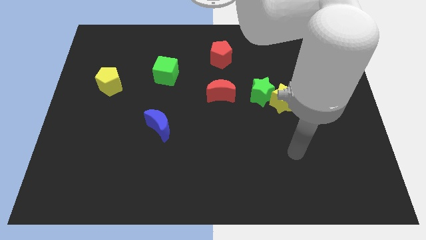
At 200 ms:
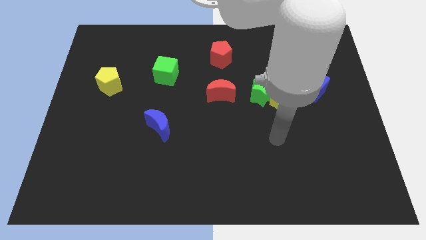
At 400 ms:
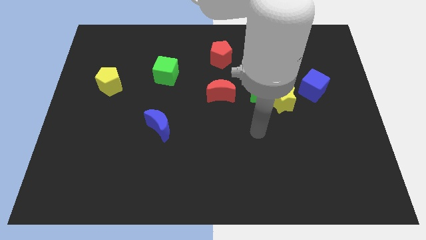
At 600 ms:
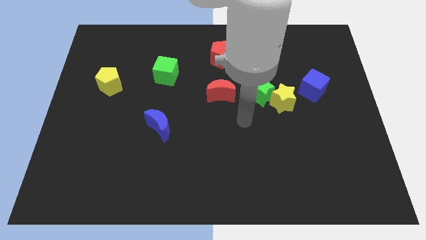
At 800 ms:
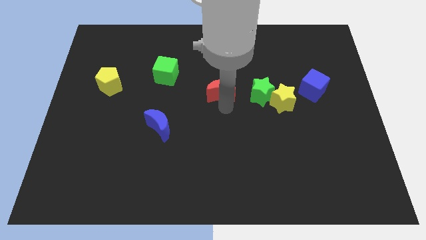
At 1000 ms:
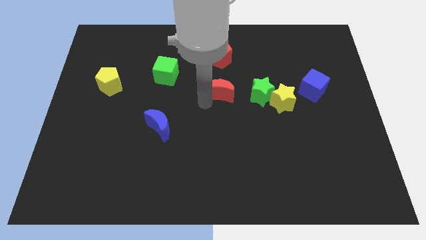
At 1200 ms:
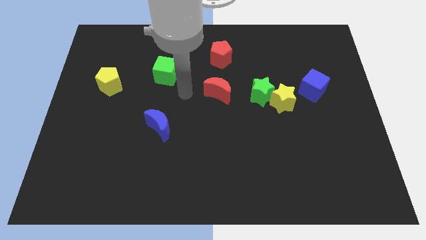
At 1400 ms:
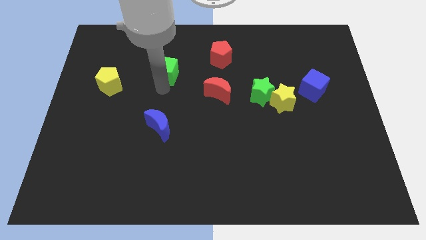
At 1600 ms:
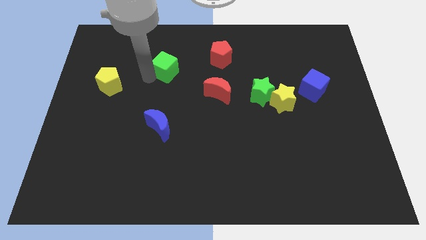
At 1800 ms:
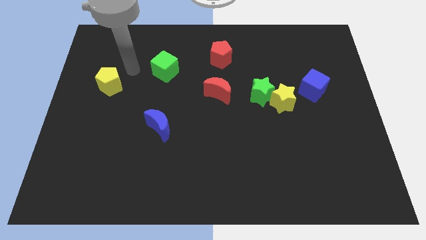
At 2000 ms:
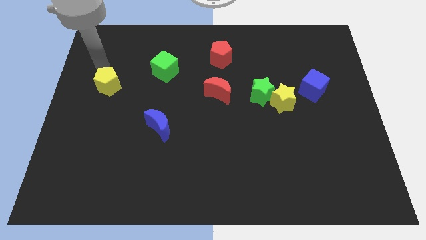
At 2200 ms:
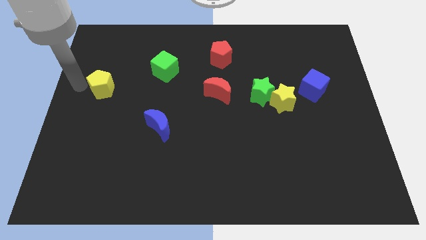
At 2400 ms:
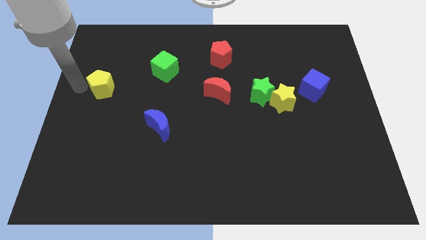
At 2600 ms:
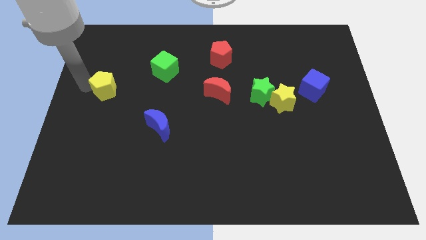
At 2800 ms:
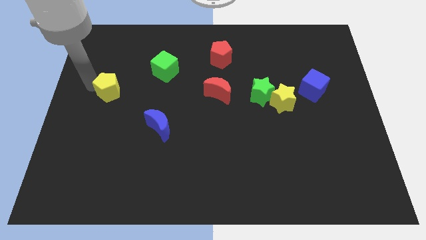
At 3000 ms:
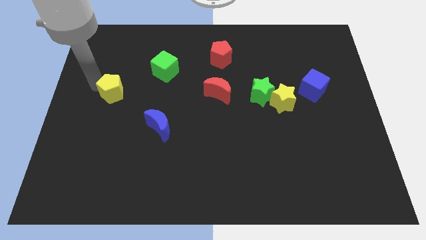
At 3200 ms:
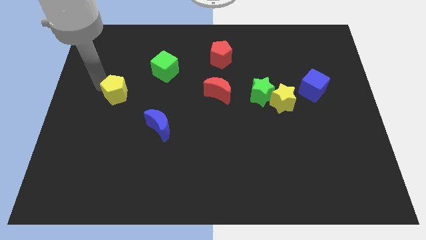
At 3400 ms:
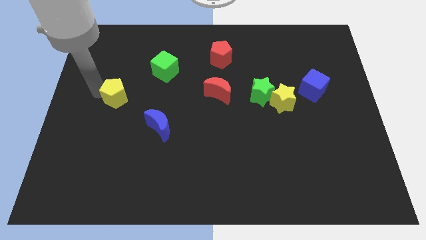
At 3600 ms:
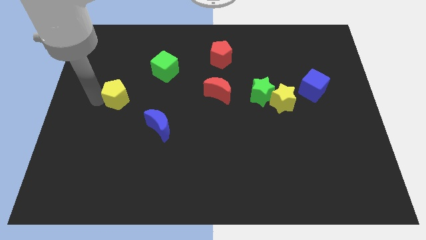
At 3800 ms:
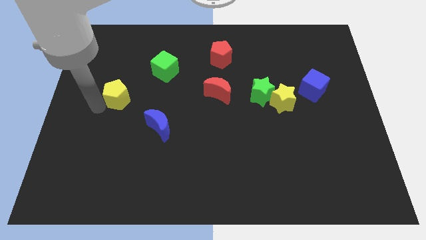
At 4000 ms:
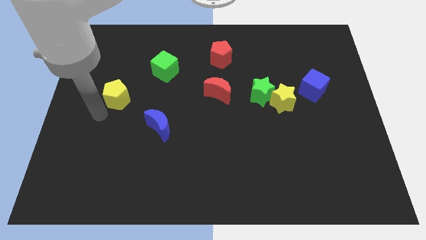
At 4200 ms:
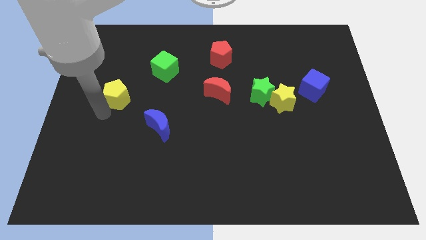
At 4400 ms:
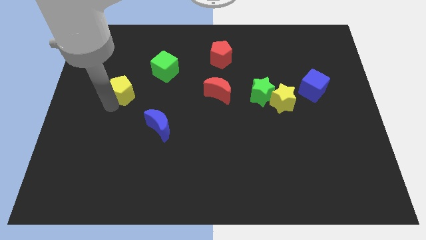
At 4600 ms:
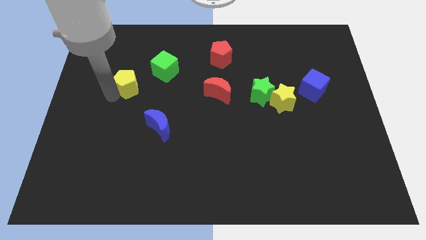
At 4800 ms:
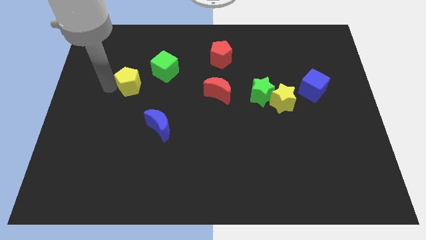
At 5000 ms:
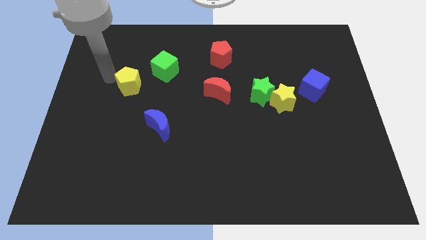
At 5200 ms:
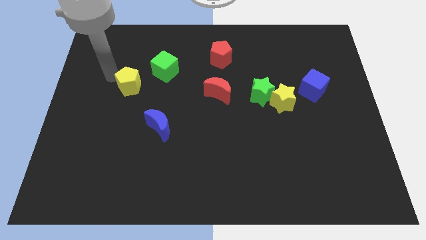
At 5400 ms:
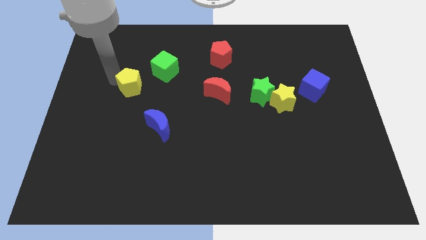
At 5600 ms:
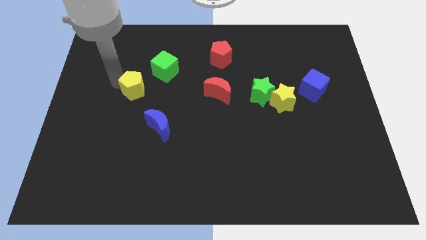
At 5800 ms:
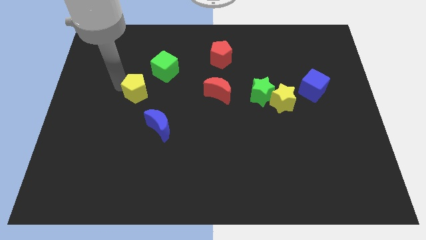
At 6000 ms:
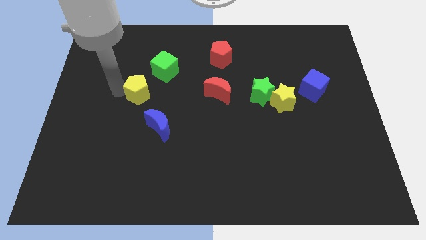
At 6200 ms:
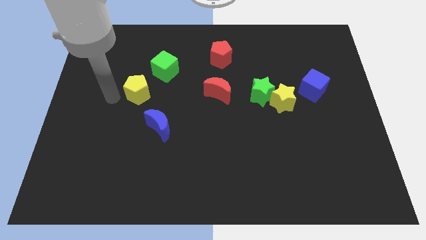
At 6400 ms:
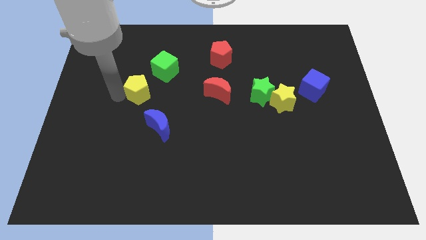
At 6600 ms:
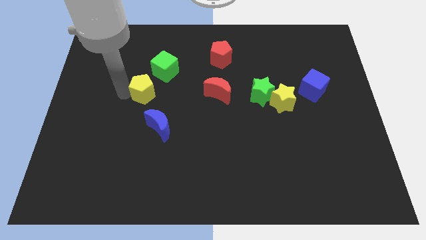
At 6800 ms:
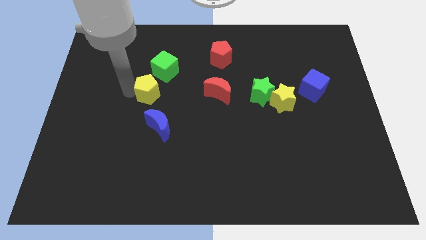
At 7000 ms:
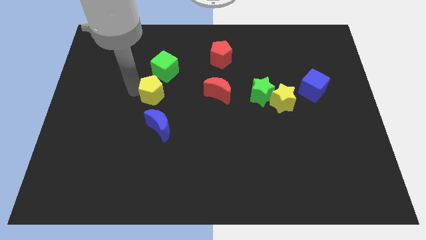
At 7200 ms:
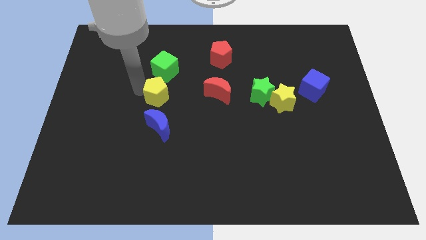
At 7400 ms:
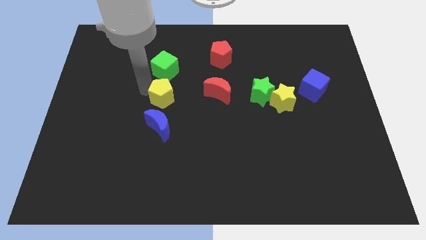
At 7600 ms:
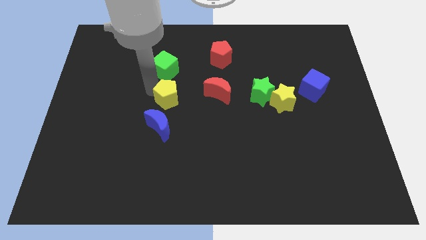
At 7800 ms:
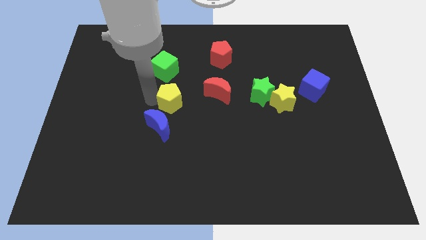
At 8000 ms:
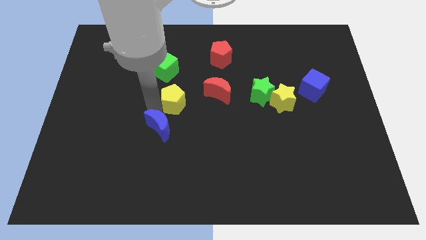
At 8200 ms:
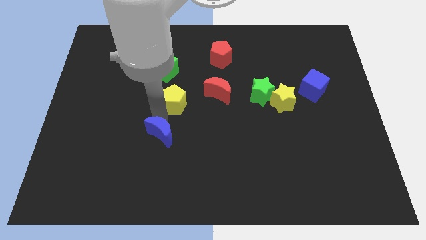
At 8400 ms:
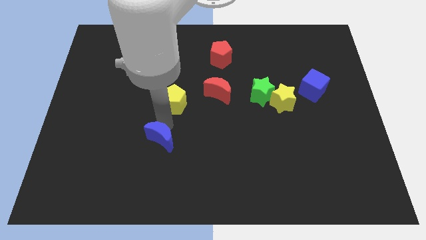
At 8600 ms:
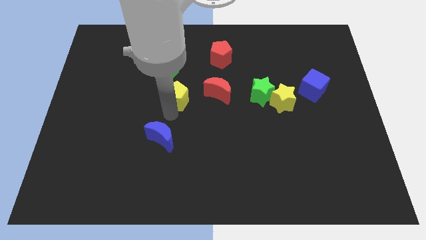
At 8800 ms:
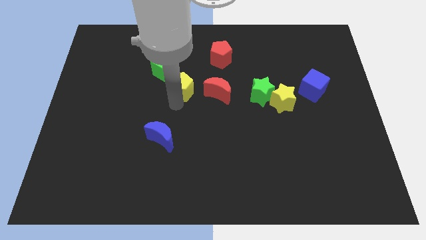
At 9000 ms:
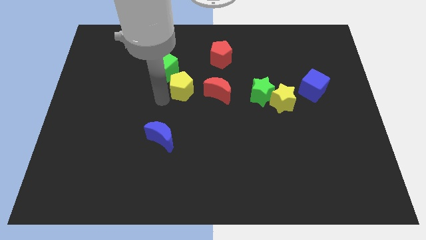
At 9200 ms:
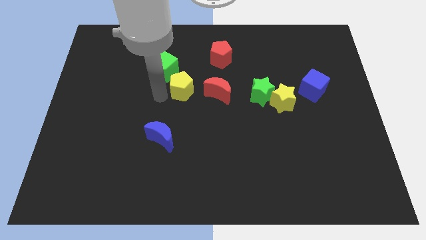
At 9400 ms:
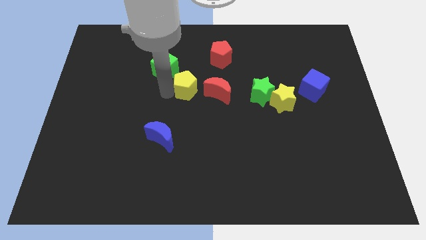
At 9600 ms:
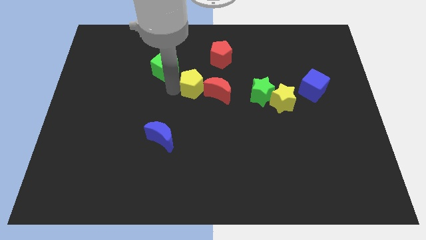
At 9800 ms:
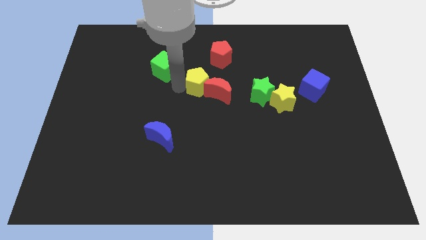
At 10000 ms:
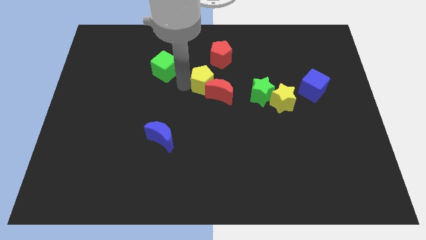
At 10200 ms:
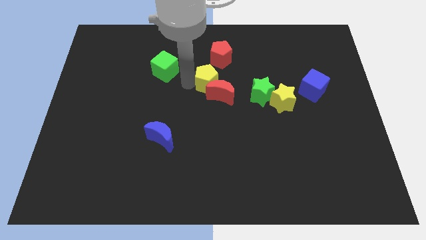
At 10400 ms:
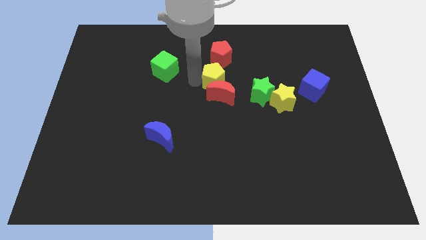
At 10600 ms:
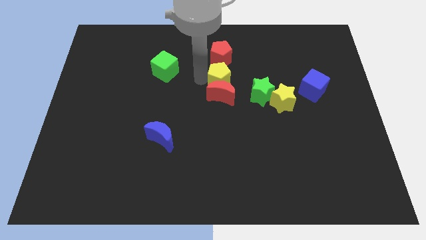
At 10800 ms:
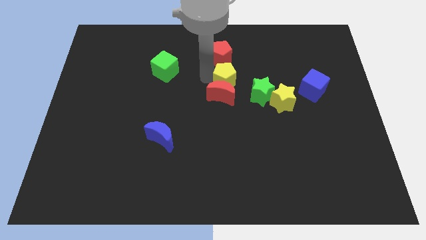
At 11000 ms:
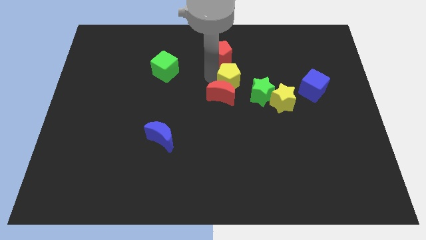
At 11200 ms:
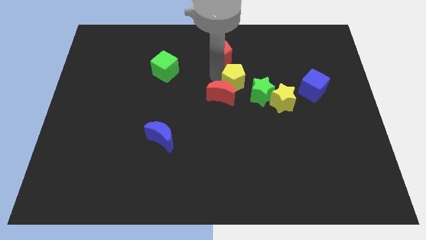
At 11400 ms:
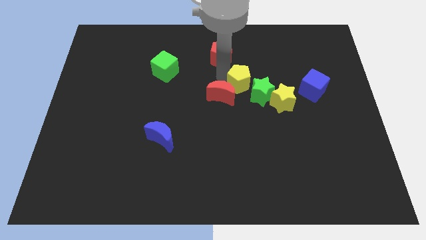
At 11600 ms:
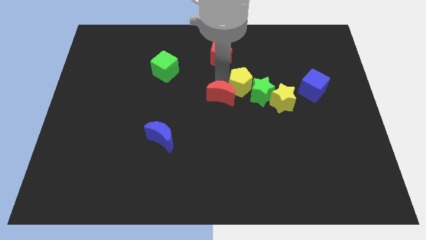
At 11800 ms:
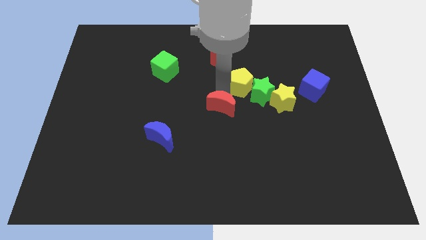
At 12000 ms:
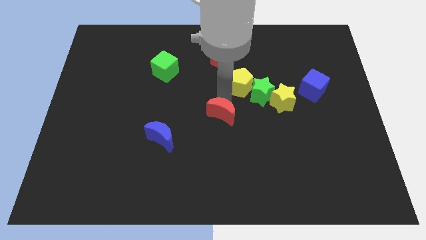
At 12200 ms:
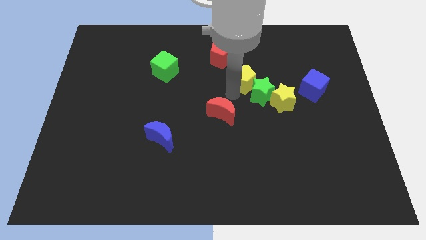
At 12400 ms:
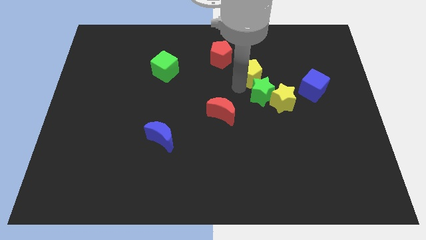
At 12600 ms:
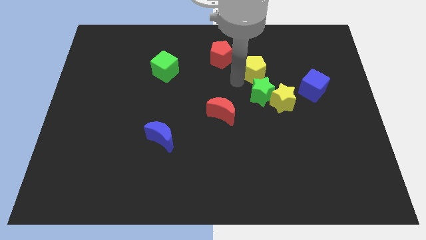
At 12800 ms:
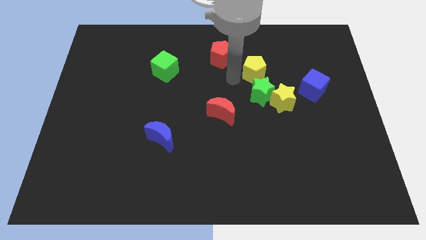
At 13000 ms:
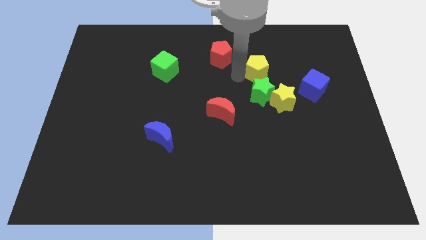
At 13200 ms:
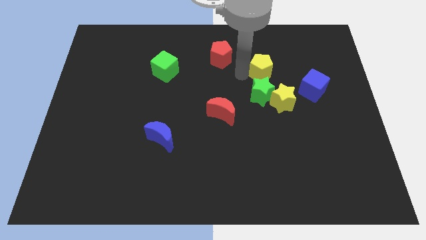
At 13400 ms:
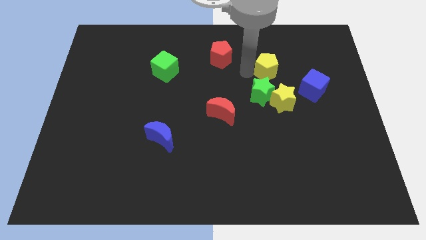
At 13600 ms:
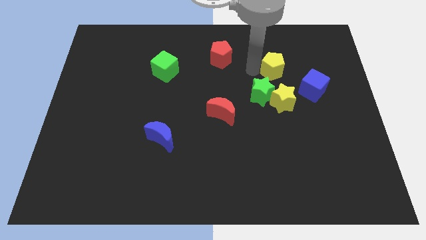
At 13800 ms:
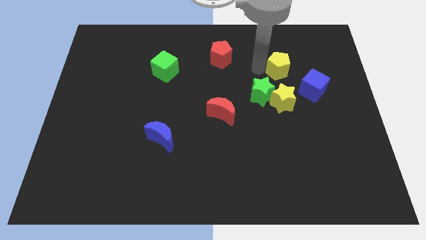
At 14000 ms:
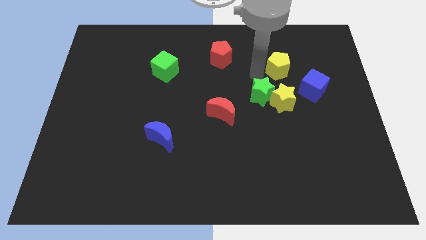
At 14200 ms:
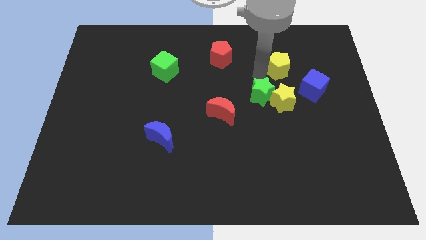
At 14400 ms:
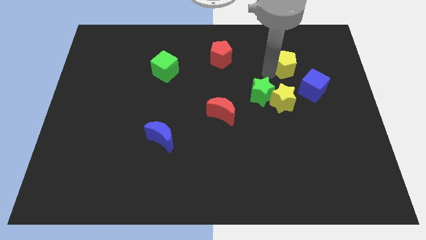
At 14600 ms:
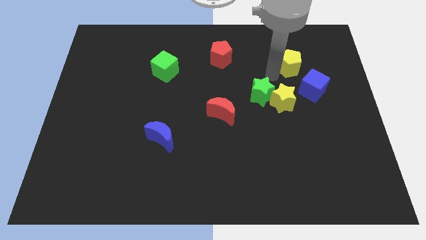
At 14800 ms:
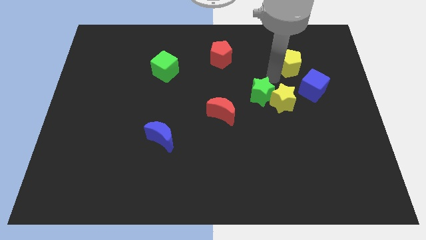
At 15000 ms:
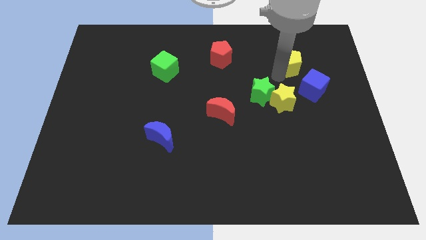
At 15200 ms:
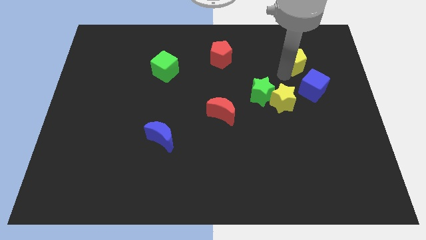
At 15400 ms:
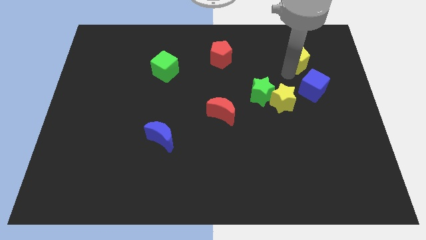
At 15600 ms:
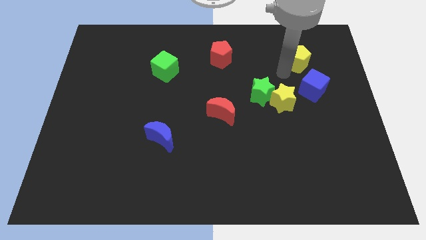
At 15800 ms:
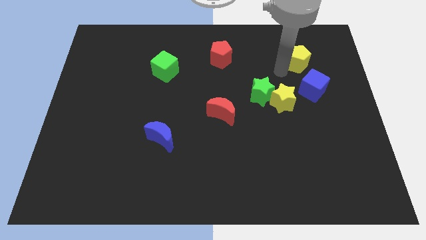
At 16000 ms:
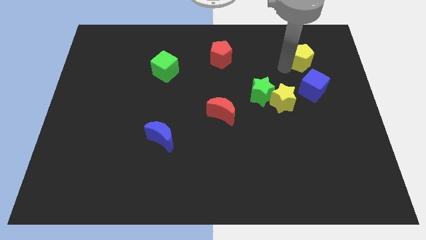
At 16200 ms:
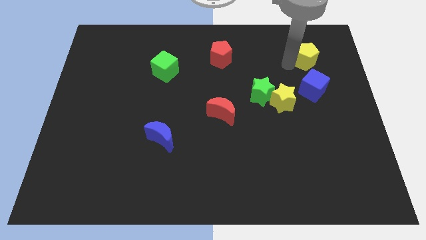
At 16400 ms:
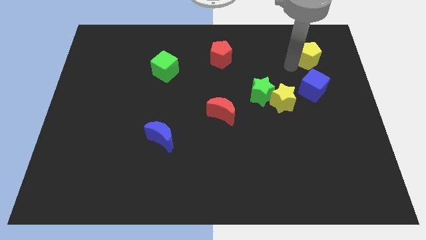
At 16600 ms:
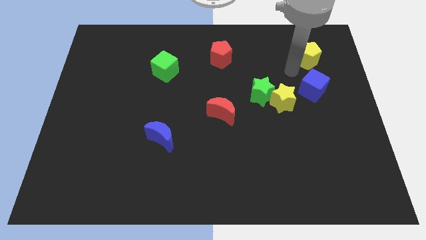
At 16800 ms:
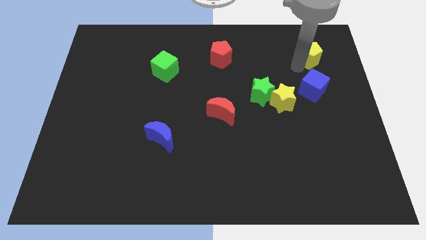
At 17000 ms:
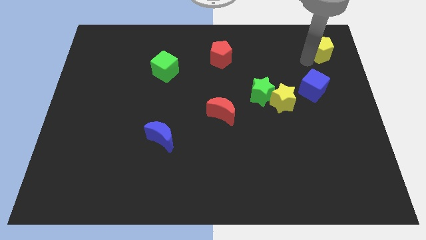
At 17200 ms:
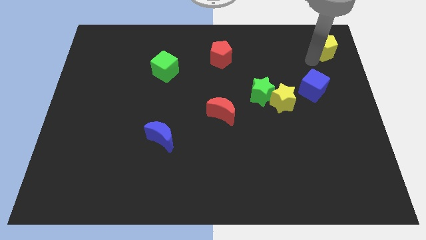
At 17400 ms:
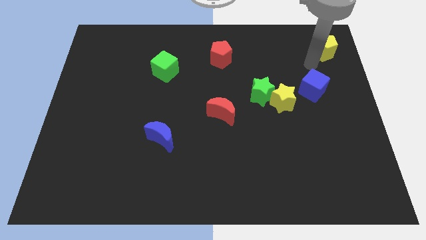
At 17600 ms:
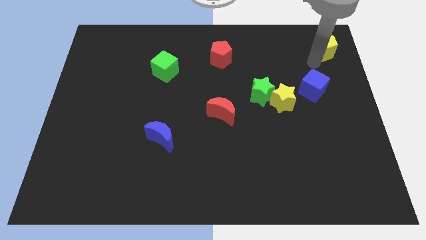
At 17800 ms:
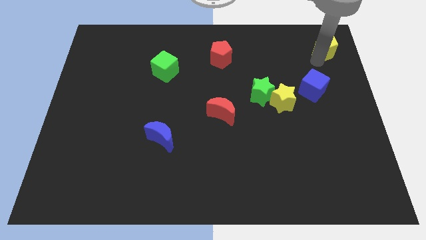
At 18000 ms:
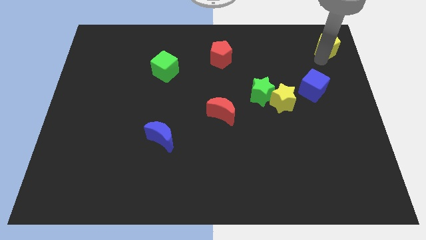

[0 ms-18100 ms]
put the yellow pentagon to the top right of the board
